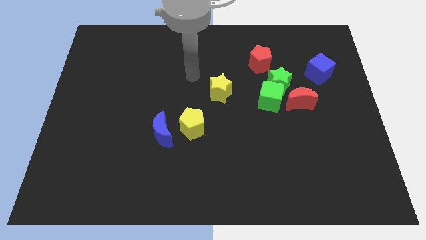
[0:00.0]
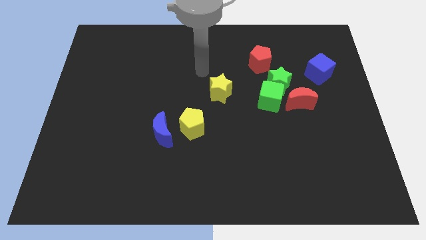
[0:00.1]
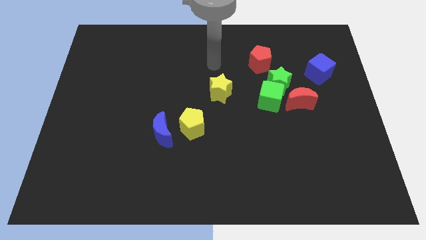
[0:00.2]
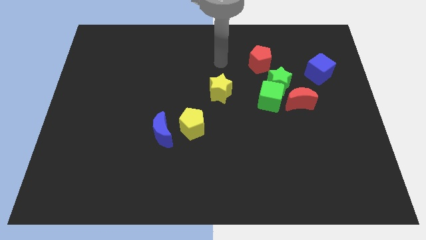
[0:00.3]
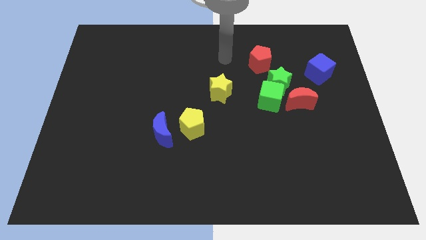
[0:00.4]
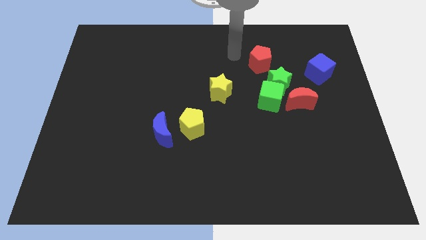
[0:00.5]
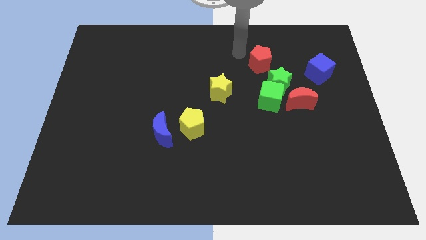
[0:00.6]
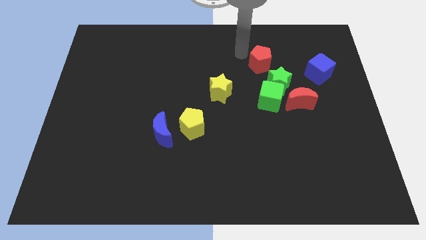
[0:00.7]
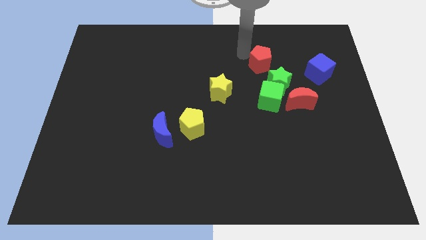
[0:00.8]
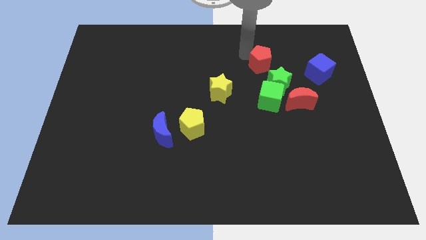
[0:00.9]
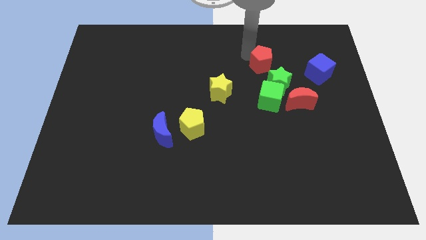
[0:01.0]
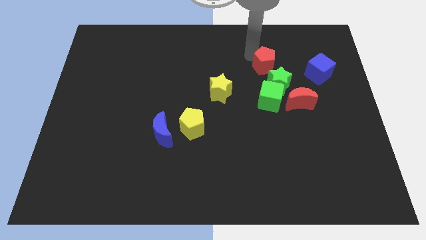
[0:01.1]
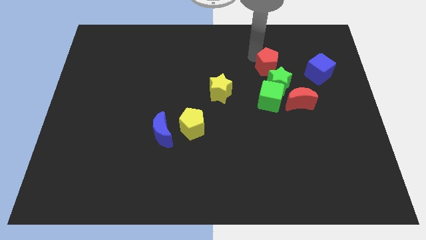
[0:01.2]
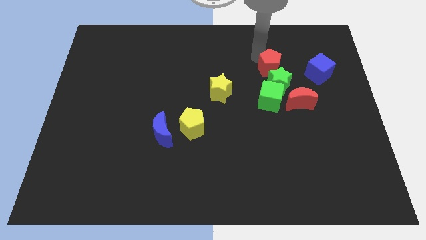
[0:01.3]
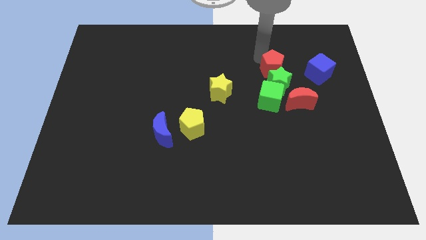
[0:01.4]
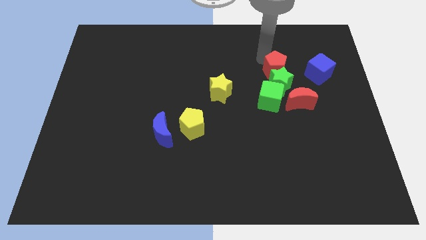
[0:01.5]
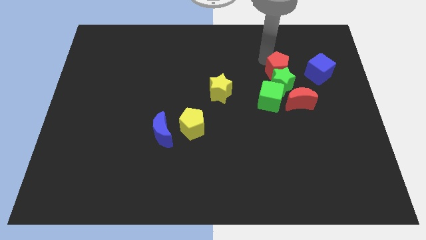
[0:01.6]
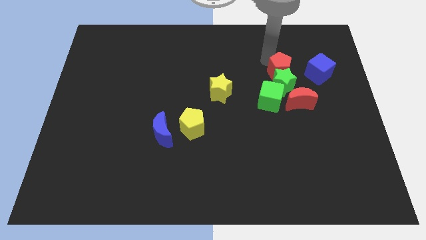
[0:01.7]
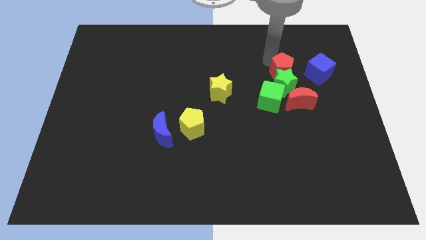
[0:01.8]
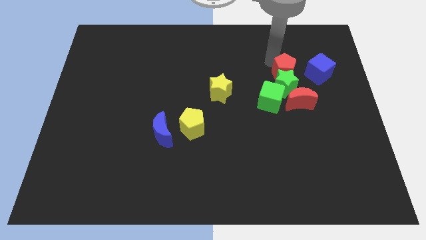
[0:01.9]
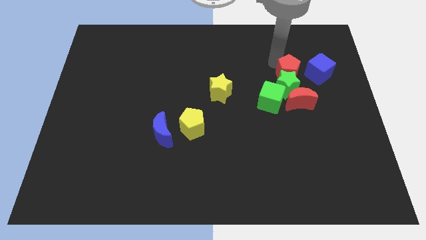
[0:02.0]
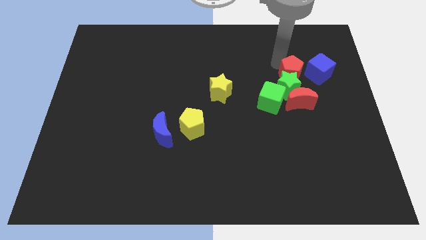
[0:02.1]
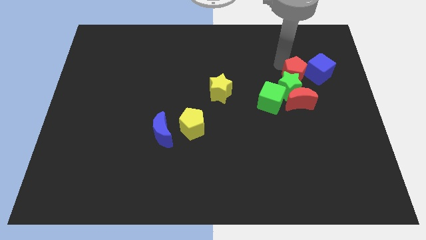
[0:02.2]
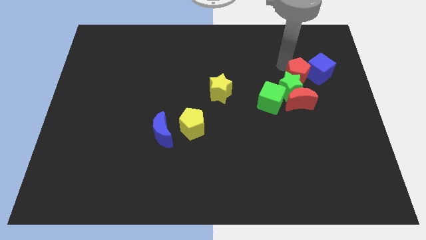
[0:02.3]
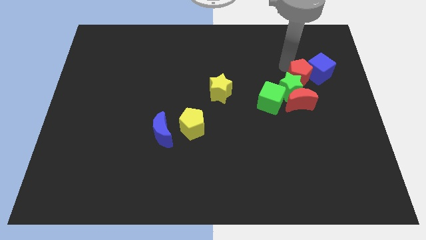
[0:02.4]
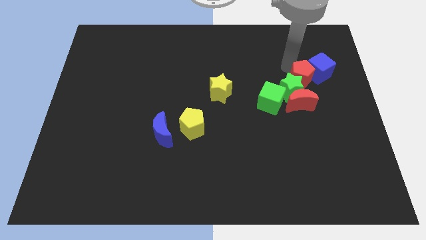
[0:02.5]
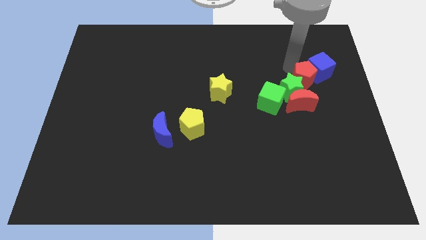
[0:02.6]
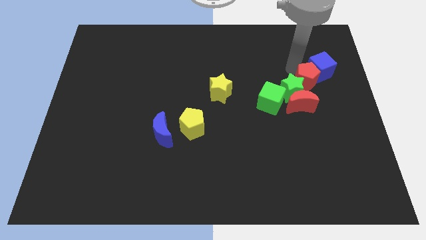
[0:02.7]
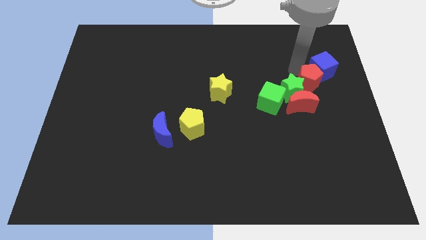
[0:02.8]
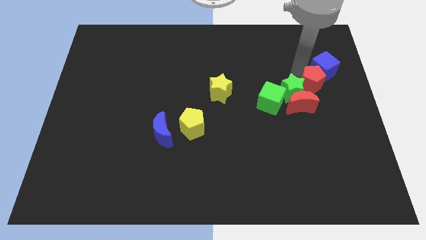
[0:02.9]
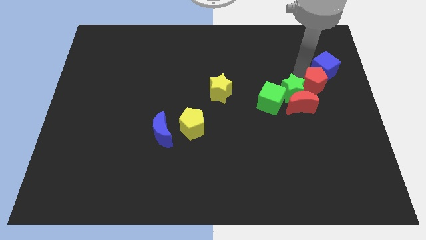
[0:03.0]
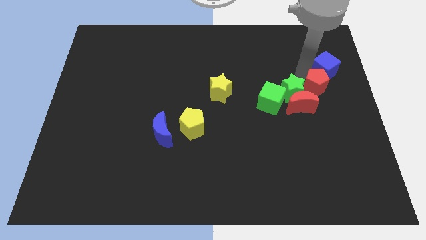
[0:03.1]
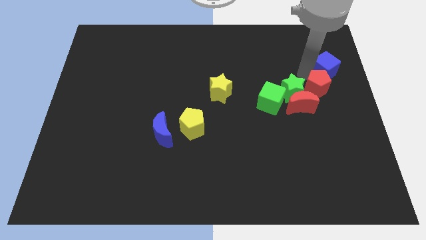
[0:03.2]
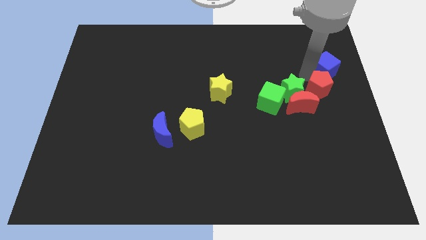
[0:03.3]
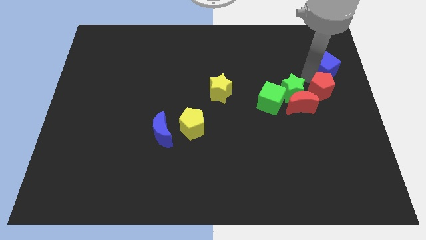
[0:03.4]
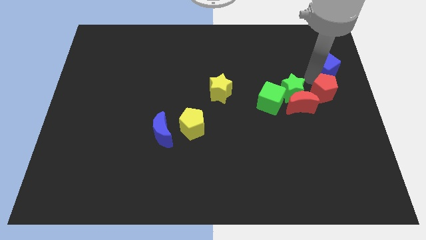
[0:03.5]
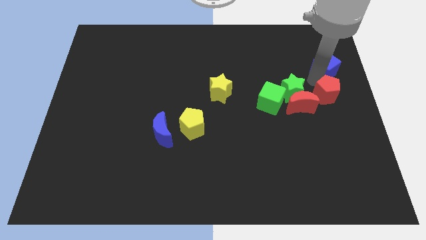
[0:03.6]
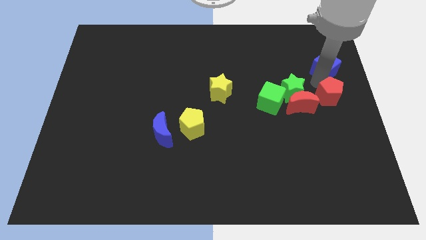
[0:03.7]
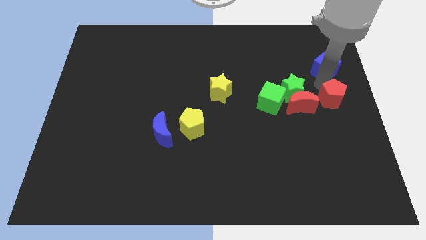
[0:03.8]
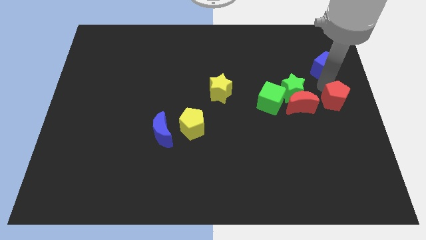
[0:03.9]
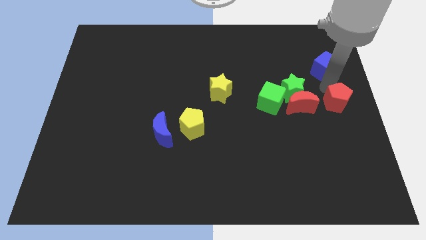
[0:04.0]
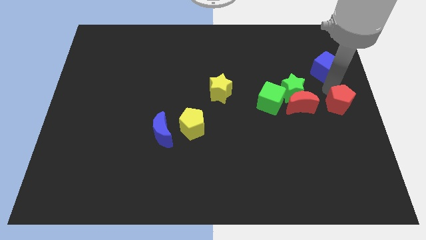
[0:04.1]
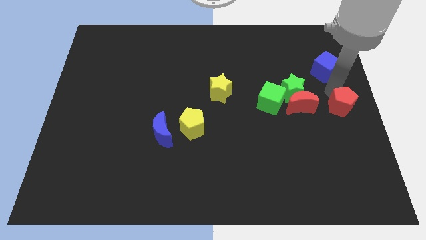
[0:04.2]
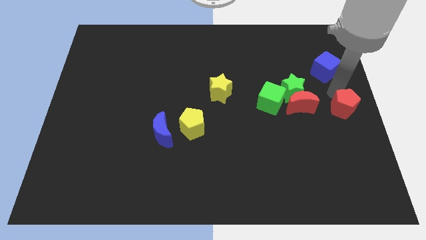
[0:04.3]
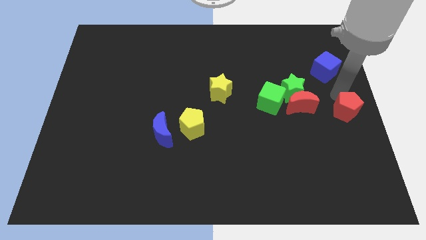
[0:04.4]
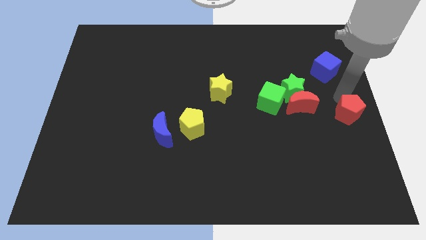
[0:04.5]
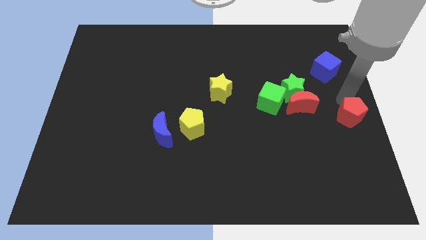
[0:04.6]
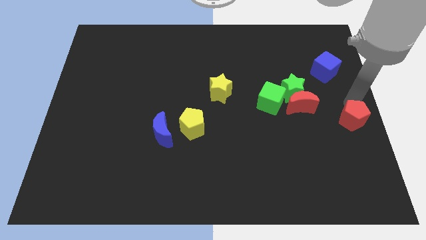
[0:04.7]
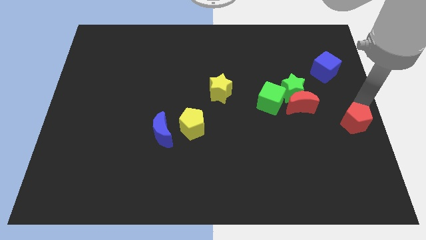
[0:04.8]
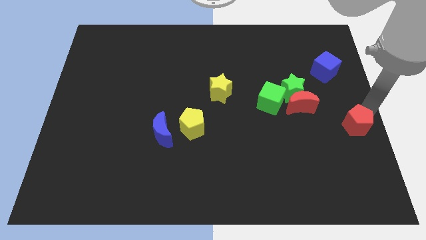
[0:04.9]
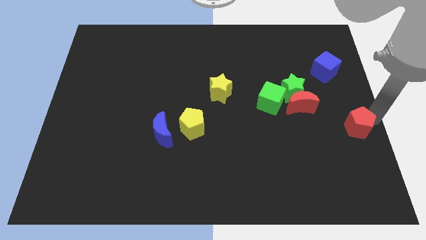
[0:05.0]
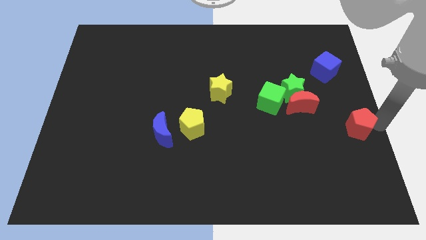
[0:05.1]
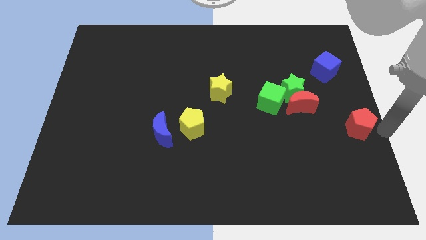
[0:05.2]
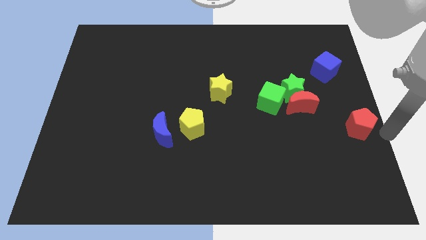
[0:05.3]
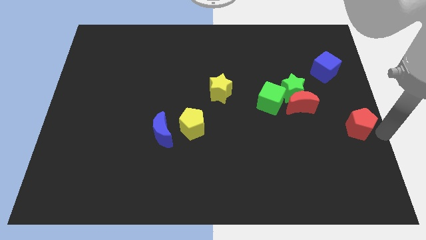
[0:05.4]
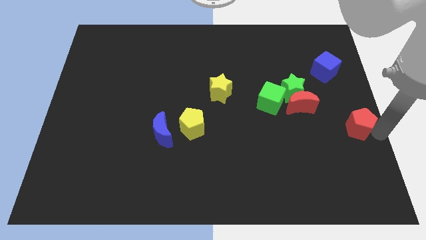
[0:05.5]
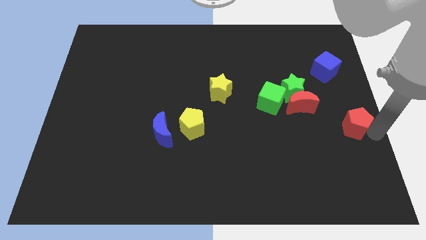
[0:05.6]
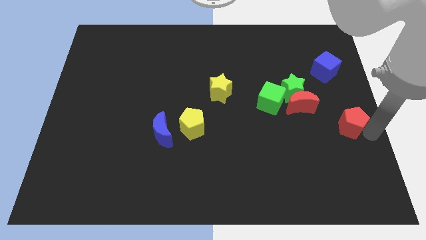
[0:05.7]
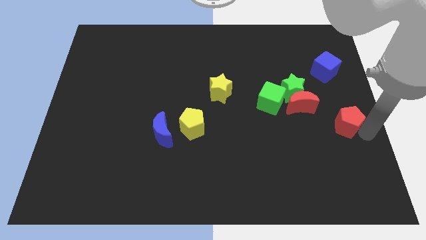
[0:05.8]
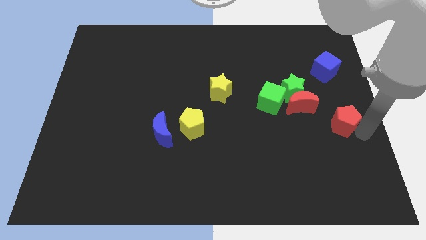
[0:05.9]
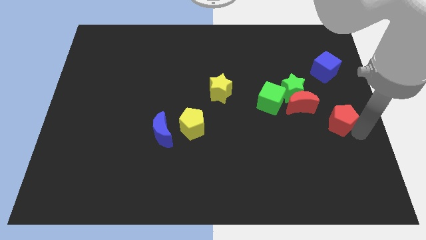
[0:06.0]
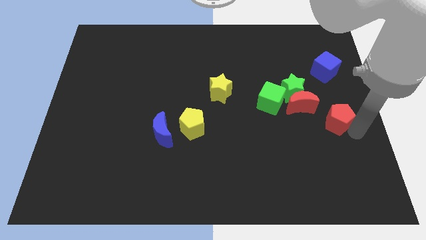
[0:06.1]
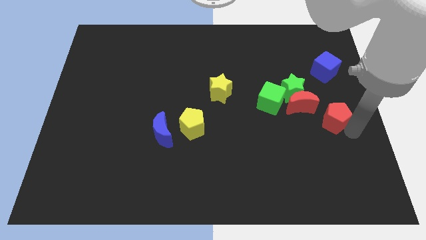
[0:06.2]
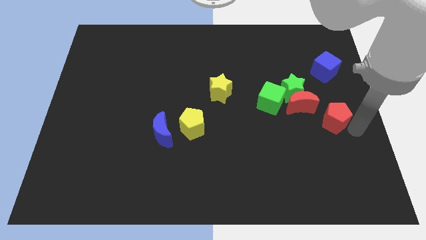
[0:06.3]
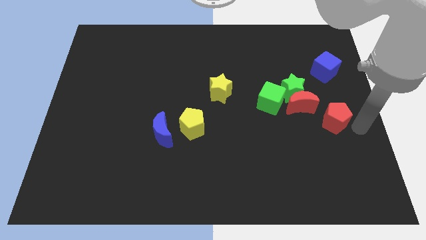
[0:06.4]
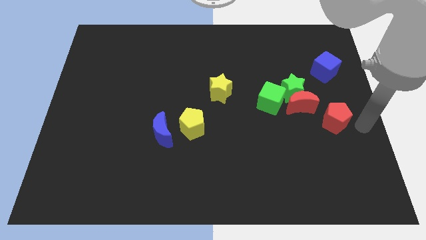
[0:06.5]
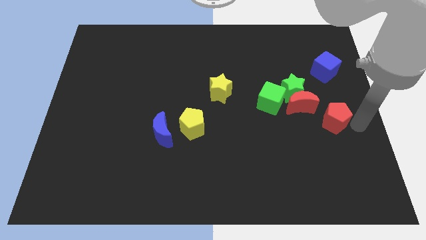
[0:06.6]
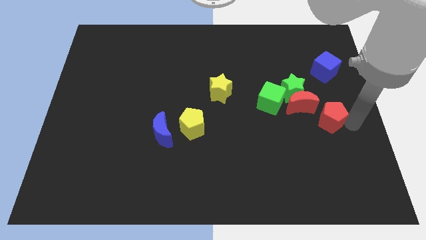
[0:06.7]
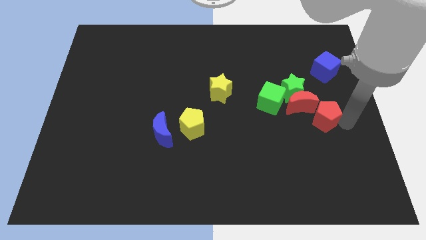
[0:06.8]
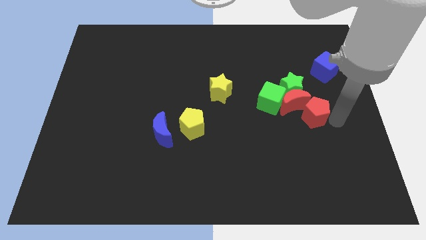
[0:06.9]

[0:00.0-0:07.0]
slide the red pentagon down a little bit

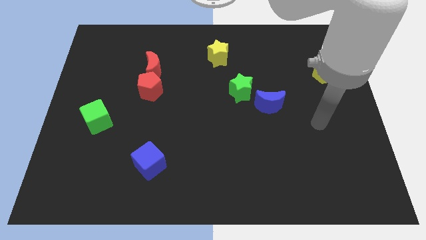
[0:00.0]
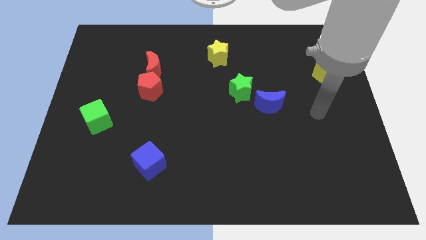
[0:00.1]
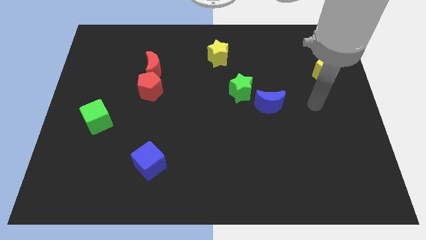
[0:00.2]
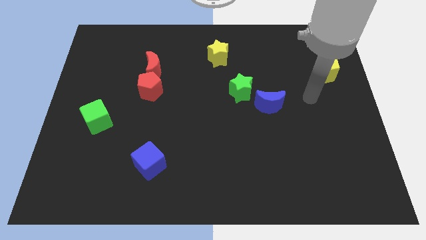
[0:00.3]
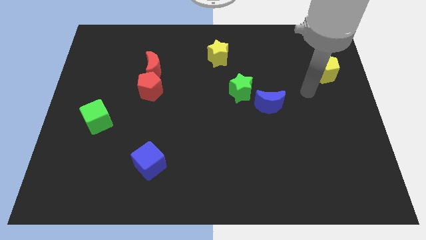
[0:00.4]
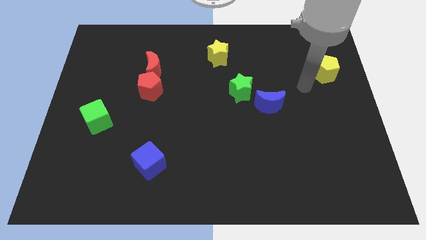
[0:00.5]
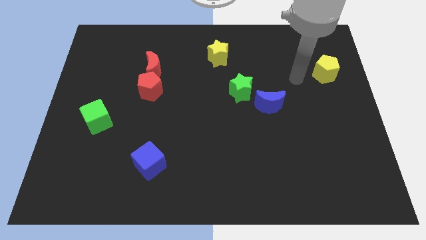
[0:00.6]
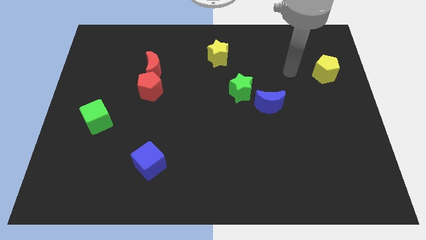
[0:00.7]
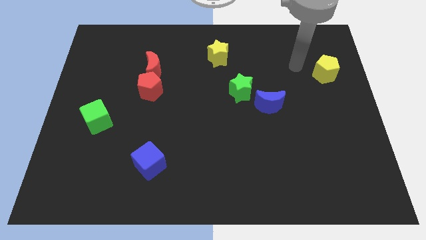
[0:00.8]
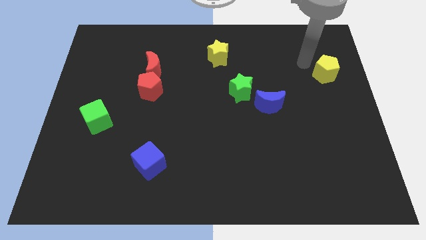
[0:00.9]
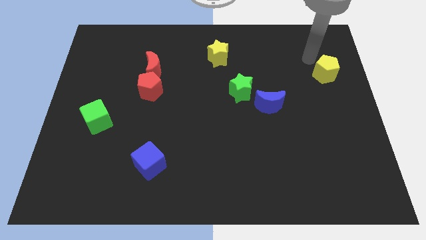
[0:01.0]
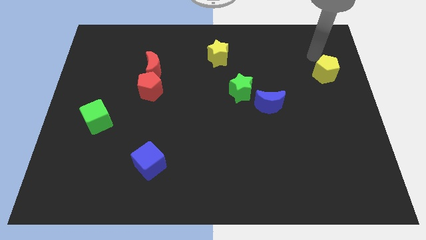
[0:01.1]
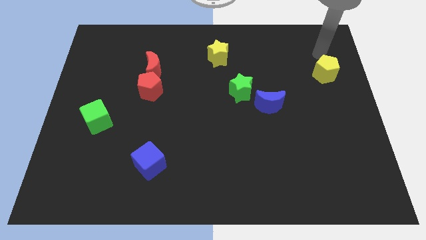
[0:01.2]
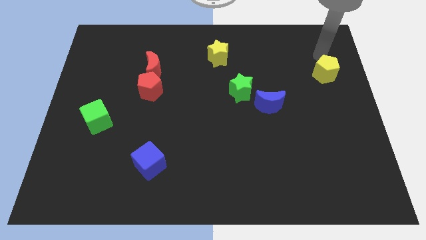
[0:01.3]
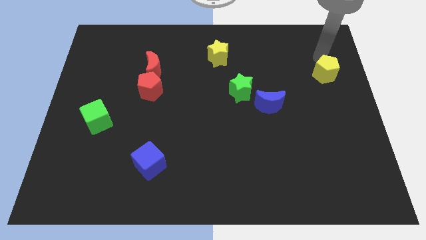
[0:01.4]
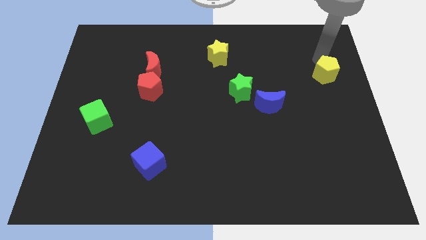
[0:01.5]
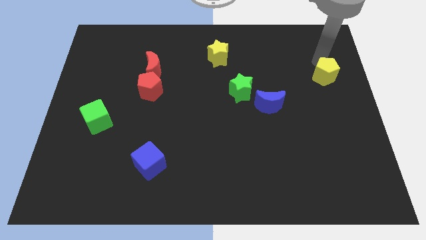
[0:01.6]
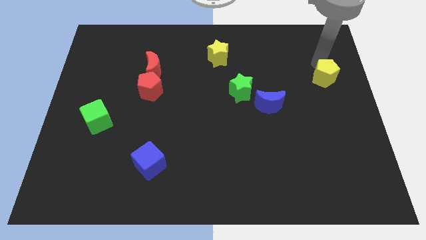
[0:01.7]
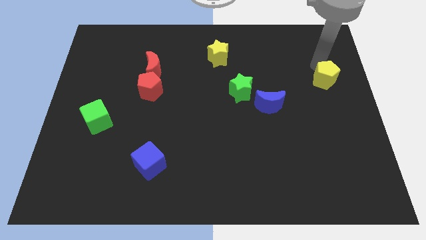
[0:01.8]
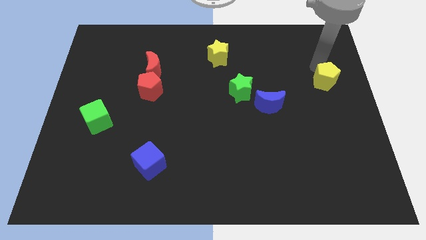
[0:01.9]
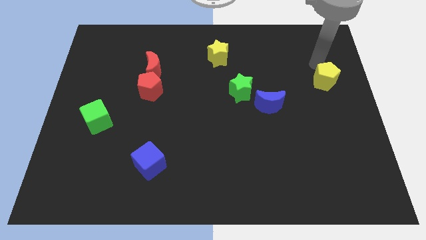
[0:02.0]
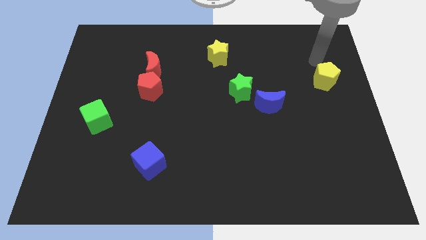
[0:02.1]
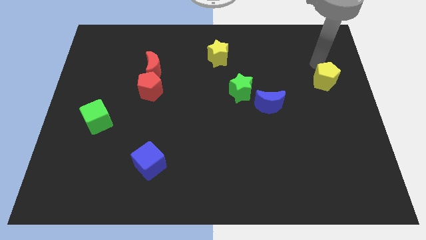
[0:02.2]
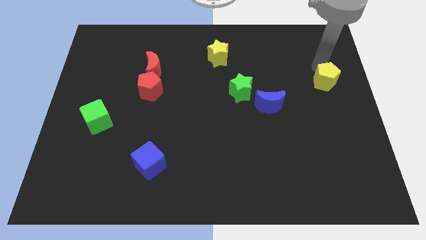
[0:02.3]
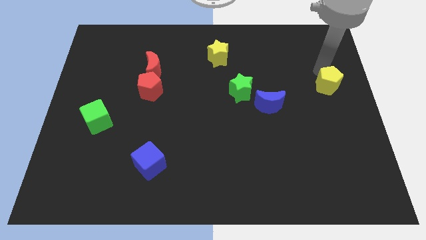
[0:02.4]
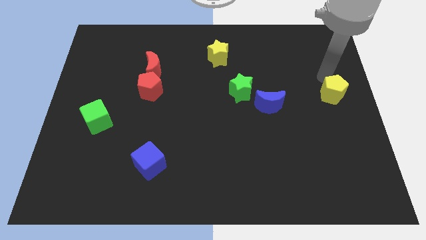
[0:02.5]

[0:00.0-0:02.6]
push the yellow pentagon down a bit
